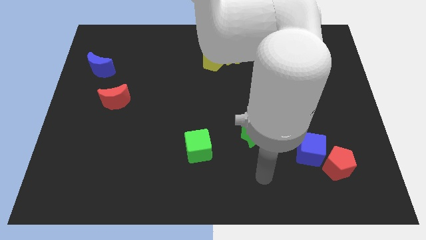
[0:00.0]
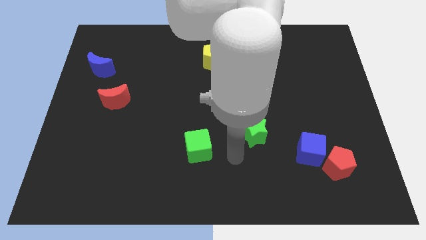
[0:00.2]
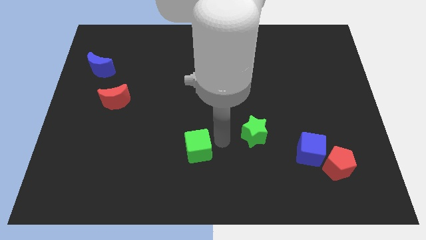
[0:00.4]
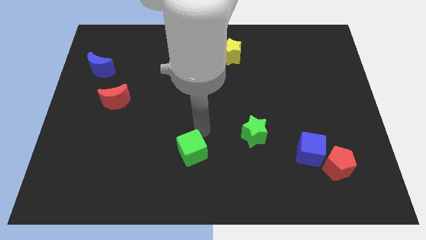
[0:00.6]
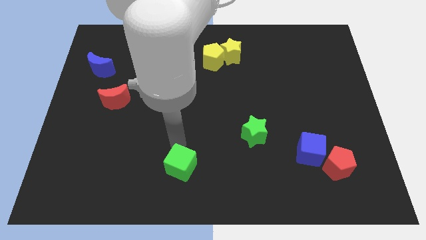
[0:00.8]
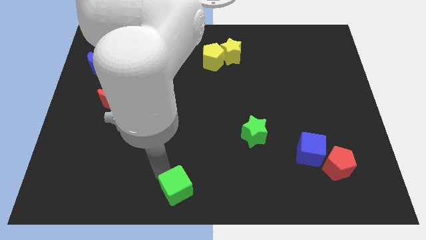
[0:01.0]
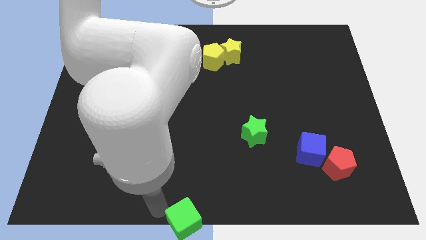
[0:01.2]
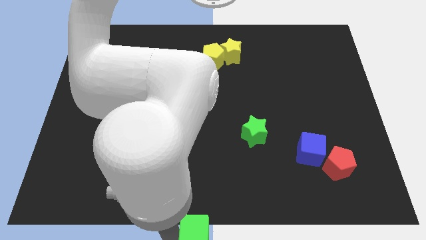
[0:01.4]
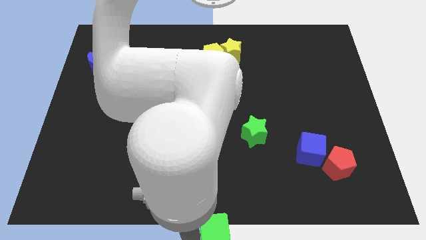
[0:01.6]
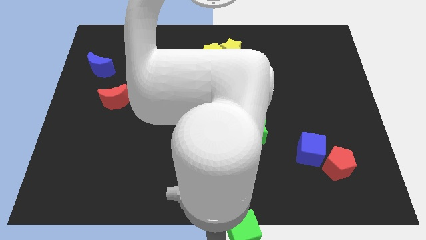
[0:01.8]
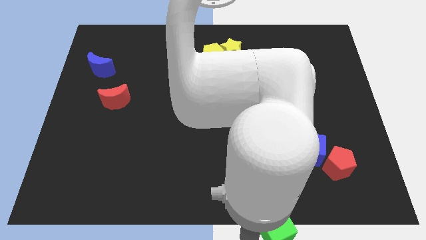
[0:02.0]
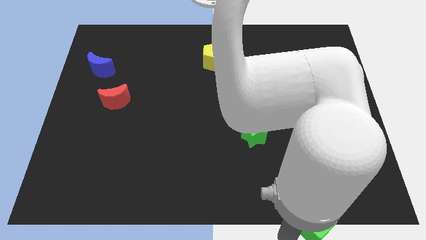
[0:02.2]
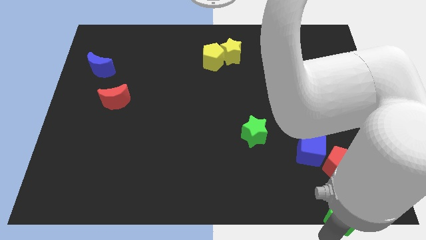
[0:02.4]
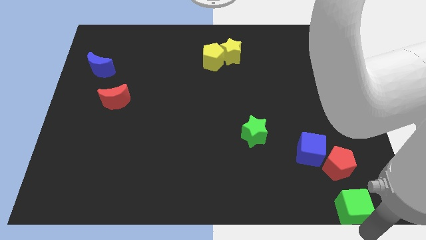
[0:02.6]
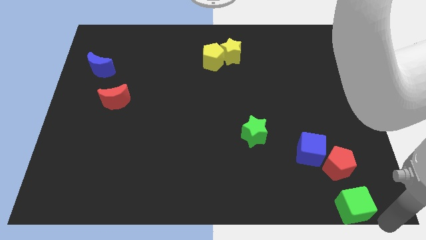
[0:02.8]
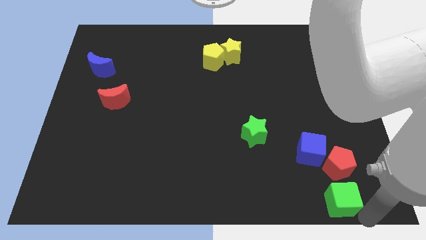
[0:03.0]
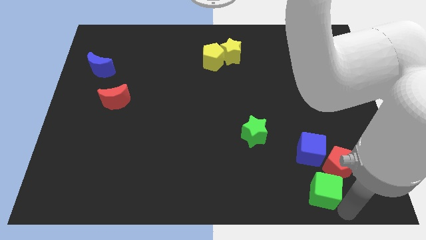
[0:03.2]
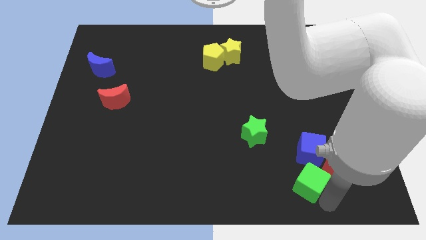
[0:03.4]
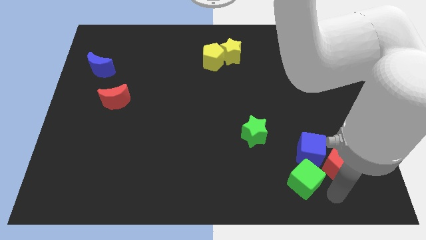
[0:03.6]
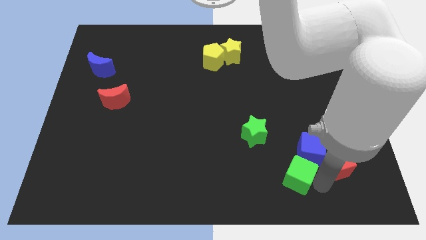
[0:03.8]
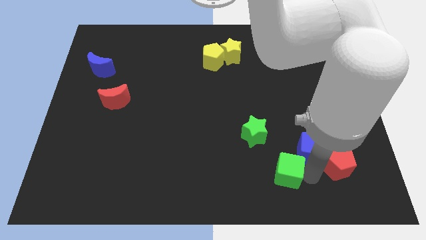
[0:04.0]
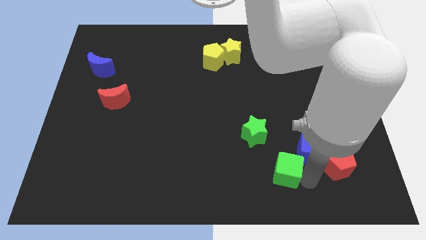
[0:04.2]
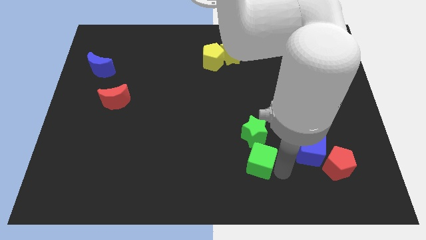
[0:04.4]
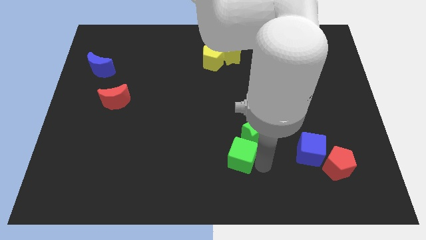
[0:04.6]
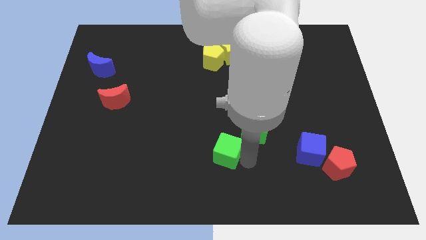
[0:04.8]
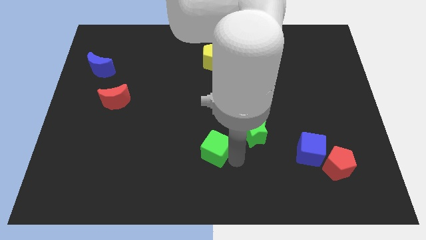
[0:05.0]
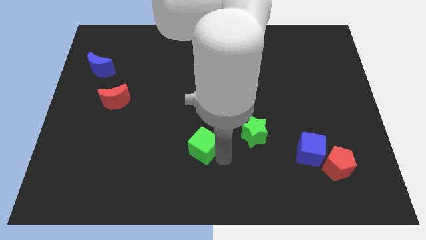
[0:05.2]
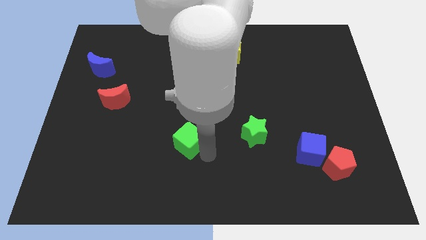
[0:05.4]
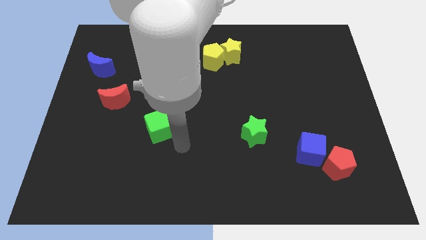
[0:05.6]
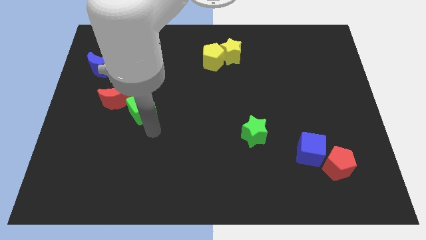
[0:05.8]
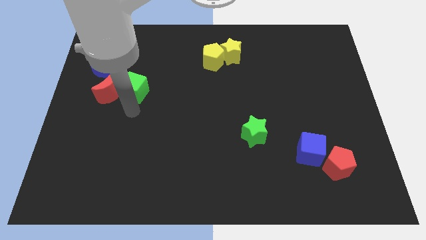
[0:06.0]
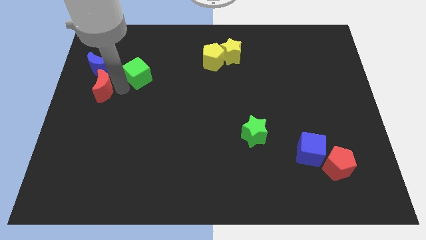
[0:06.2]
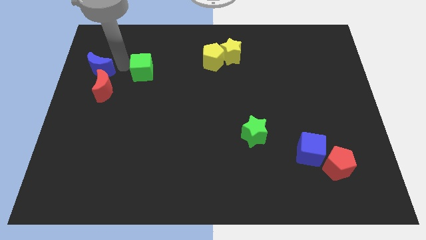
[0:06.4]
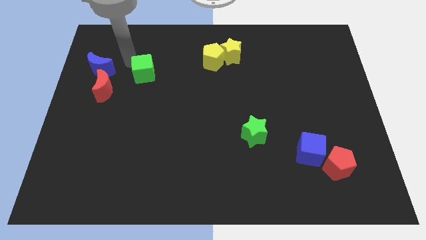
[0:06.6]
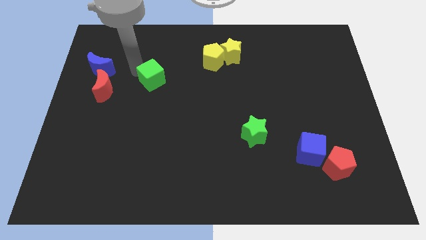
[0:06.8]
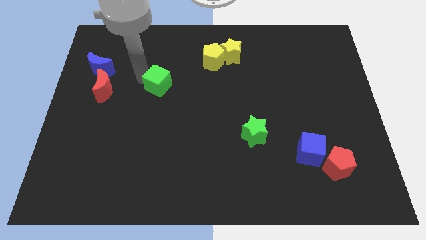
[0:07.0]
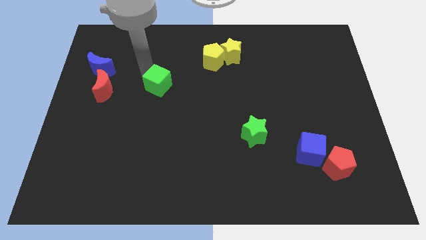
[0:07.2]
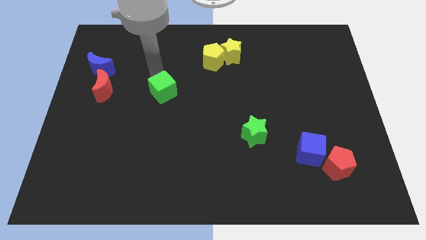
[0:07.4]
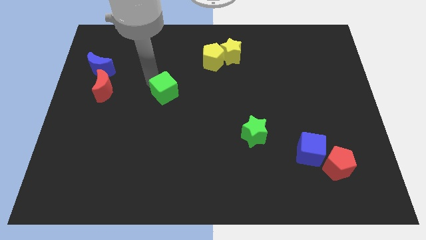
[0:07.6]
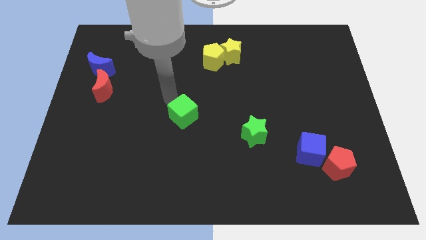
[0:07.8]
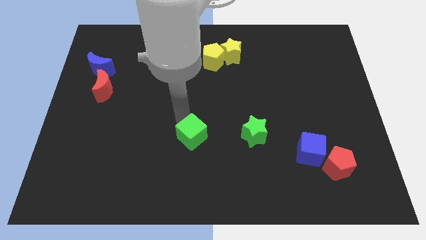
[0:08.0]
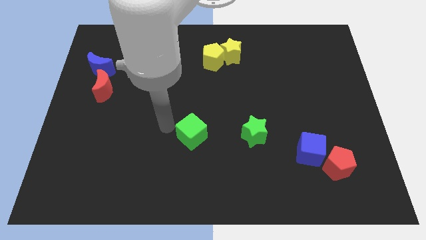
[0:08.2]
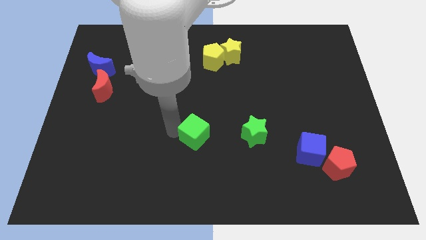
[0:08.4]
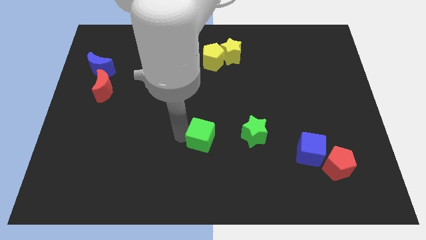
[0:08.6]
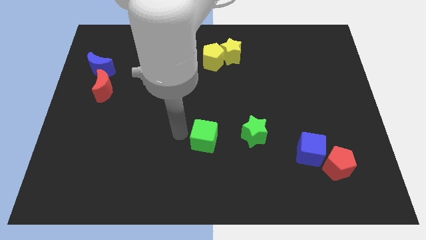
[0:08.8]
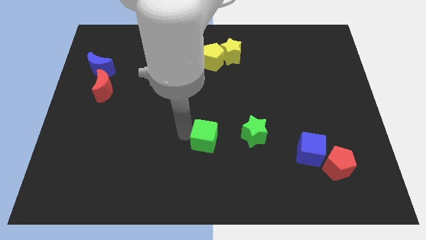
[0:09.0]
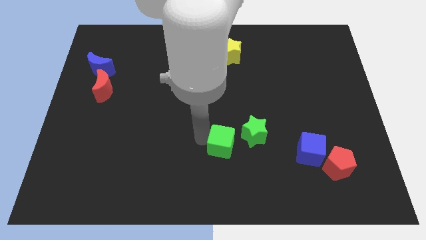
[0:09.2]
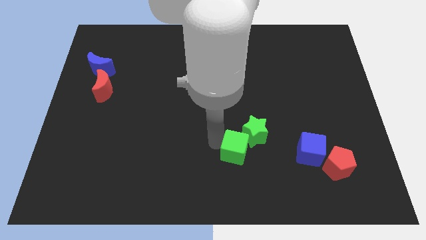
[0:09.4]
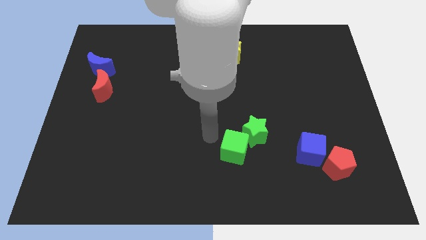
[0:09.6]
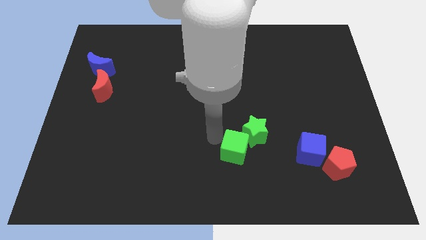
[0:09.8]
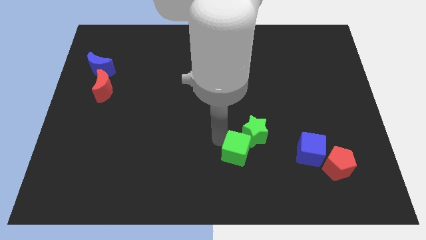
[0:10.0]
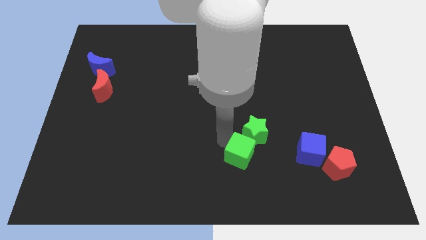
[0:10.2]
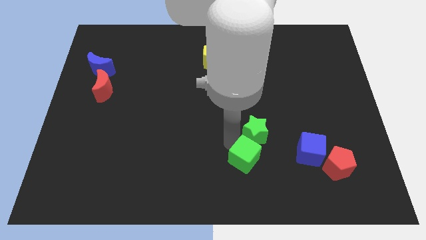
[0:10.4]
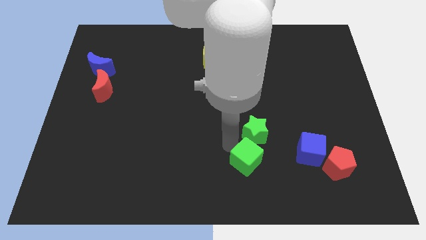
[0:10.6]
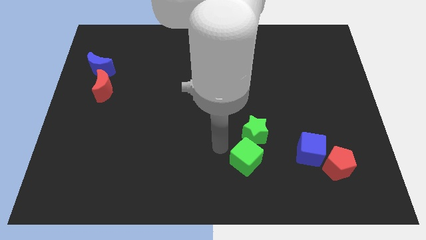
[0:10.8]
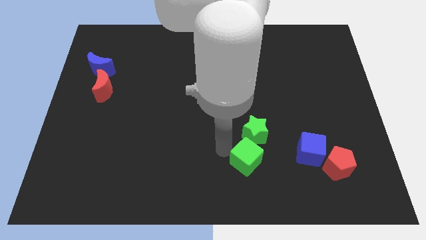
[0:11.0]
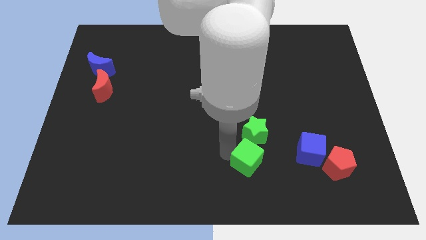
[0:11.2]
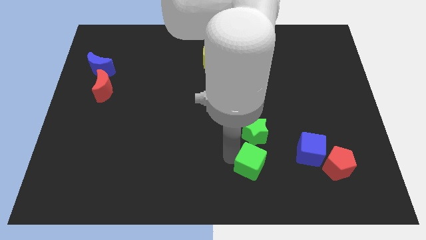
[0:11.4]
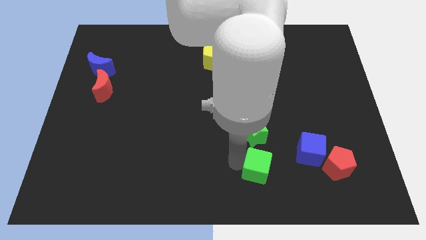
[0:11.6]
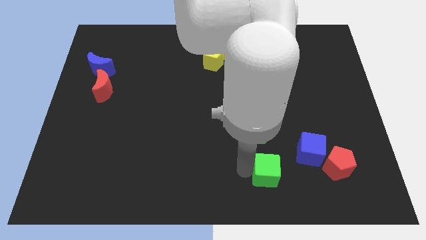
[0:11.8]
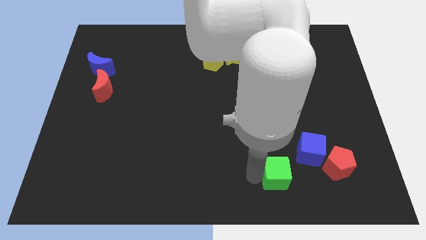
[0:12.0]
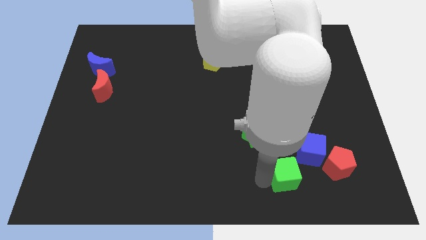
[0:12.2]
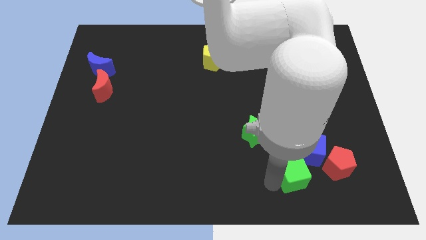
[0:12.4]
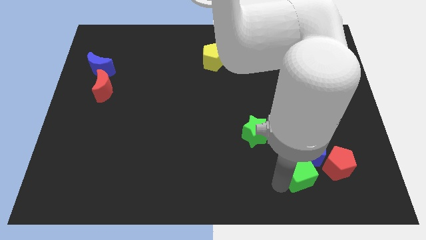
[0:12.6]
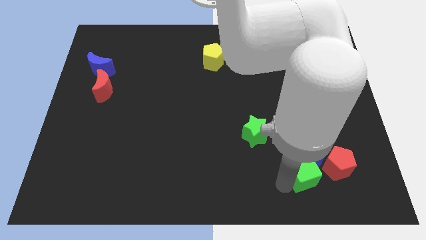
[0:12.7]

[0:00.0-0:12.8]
put the green cube close to the blue cube

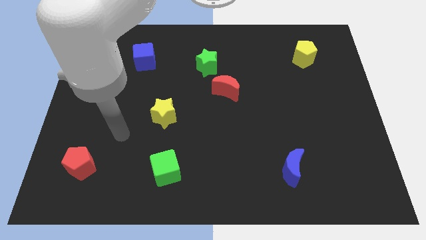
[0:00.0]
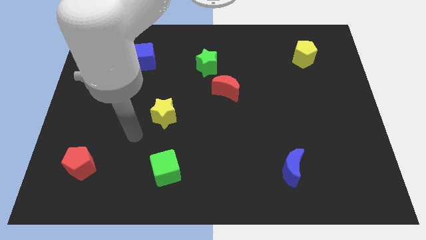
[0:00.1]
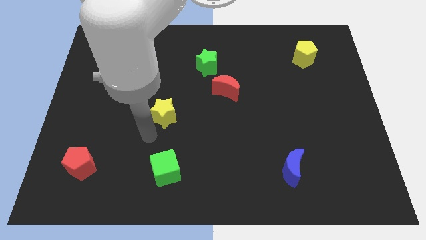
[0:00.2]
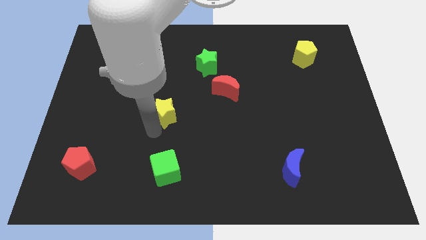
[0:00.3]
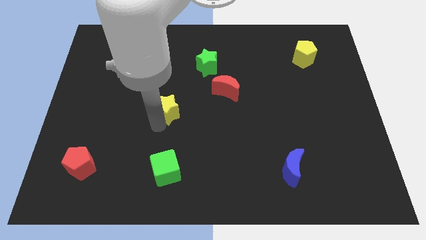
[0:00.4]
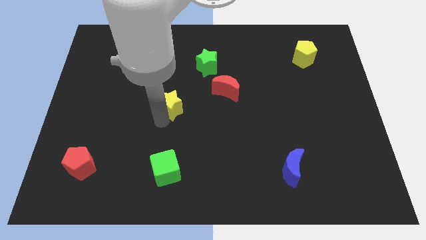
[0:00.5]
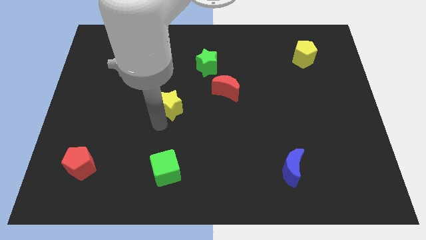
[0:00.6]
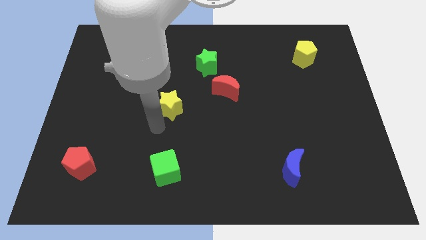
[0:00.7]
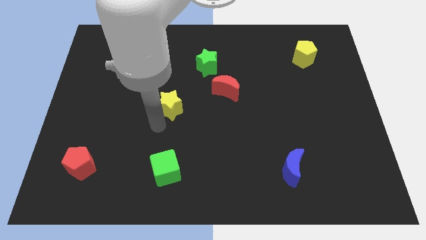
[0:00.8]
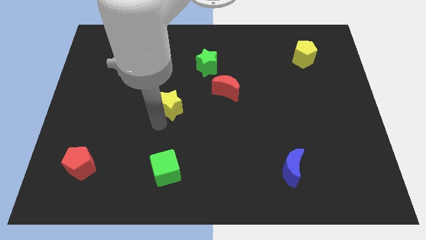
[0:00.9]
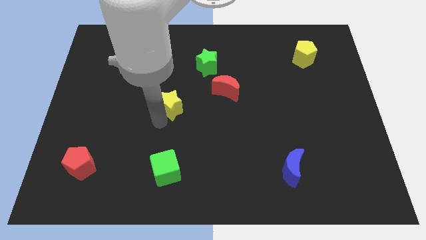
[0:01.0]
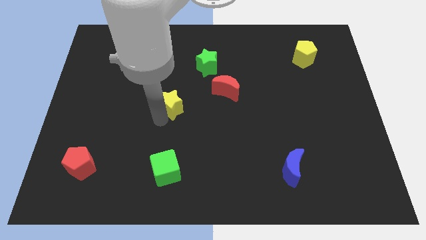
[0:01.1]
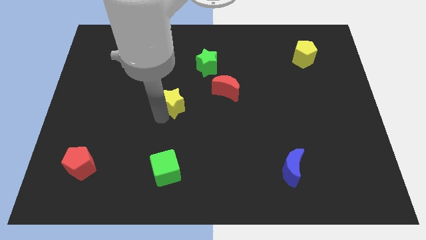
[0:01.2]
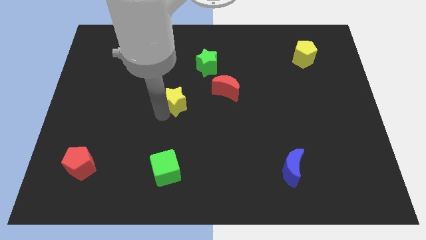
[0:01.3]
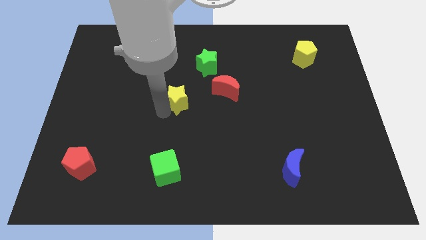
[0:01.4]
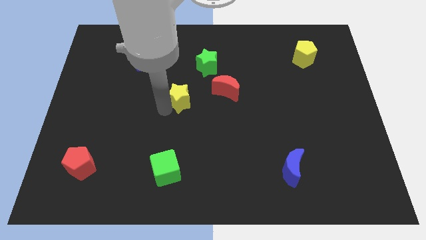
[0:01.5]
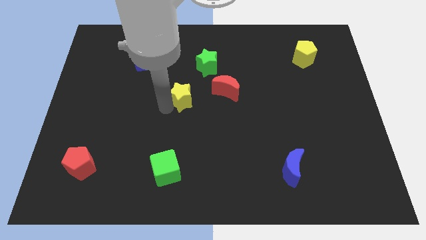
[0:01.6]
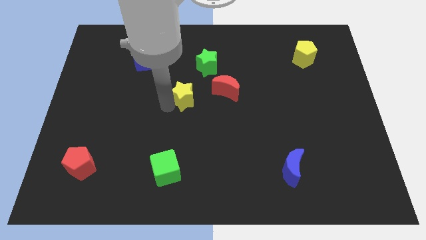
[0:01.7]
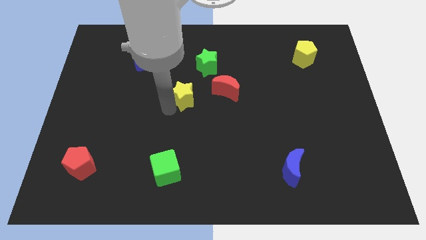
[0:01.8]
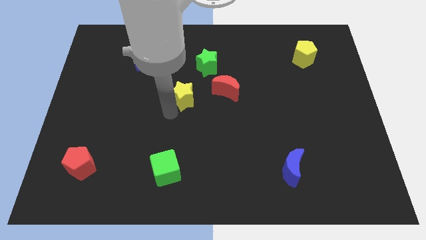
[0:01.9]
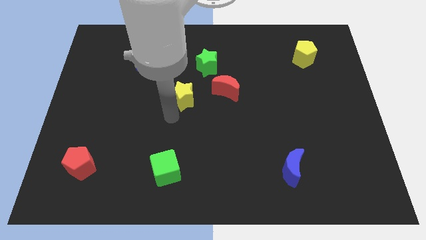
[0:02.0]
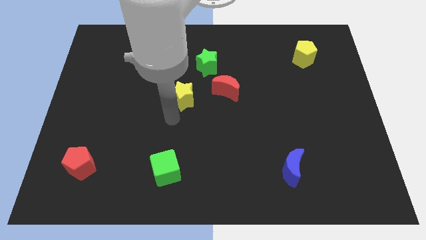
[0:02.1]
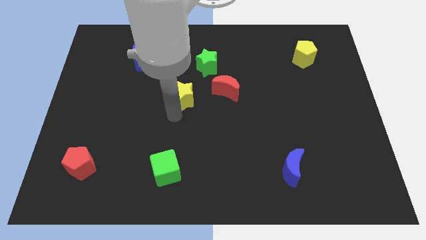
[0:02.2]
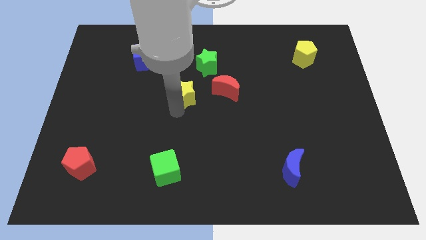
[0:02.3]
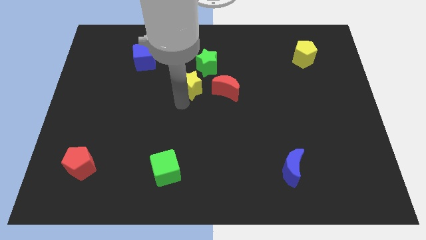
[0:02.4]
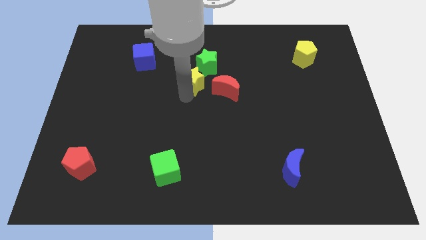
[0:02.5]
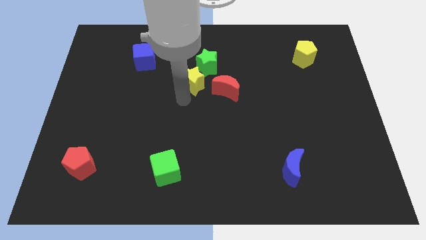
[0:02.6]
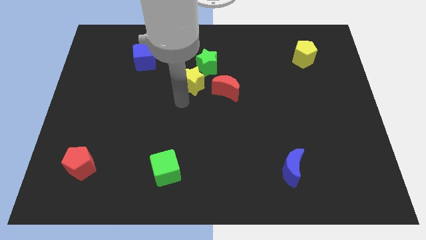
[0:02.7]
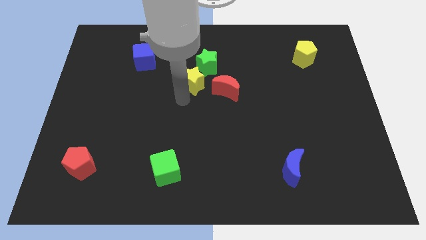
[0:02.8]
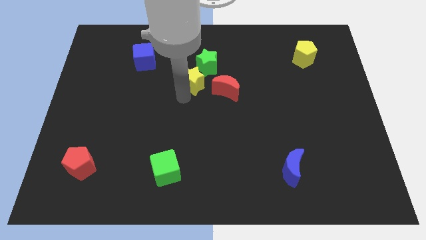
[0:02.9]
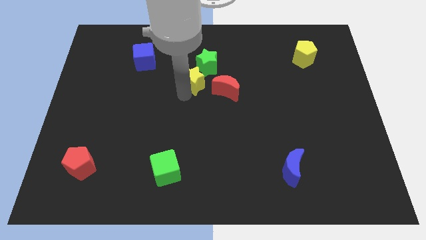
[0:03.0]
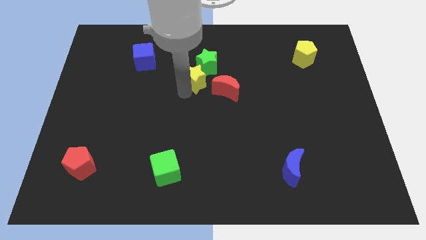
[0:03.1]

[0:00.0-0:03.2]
push the yellow star close to the green star
